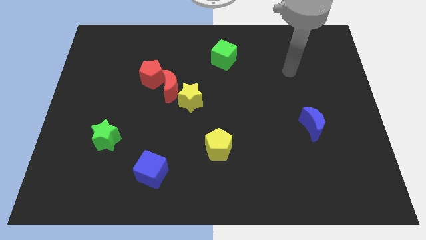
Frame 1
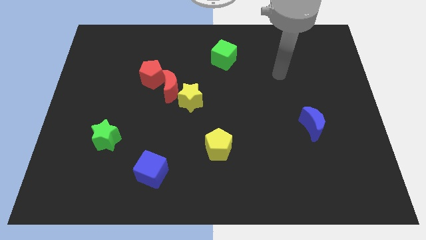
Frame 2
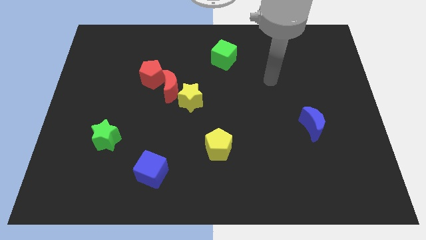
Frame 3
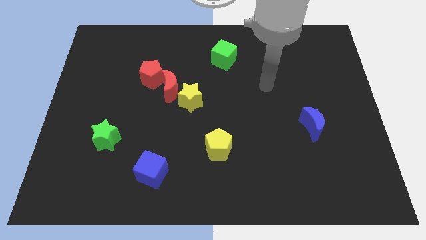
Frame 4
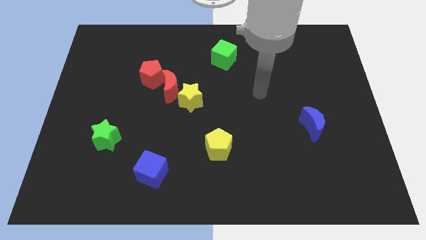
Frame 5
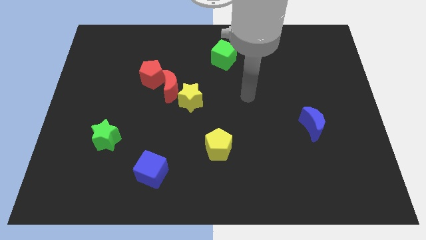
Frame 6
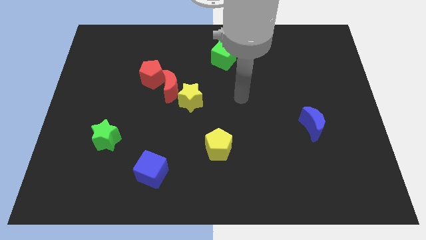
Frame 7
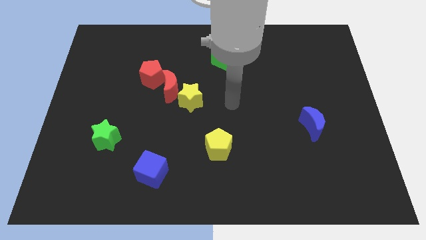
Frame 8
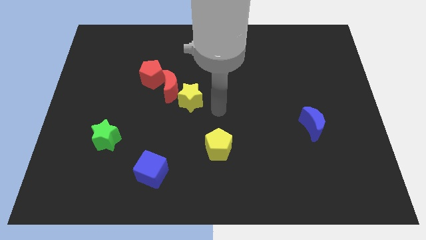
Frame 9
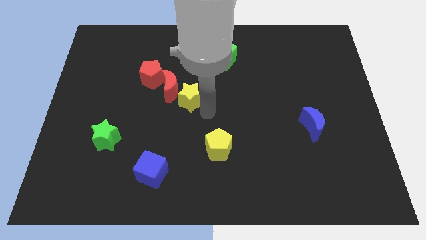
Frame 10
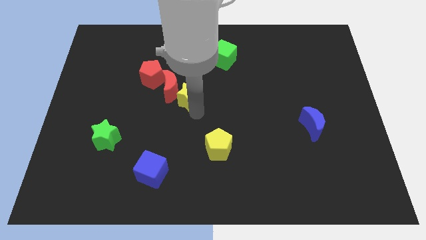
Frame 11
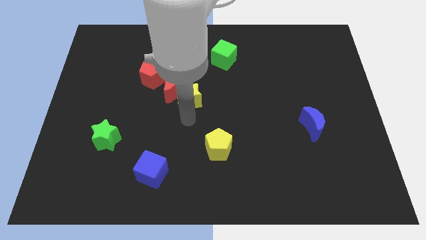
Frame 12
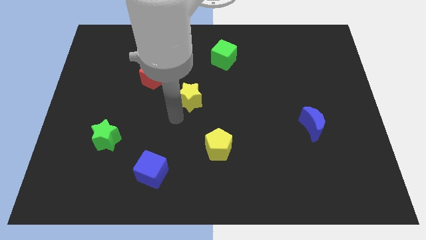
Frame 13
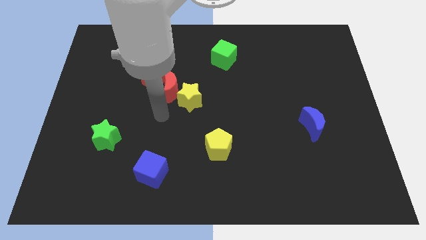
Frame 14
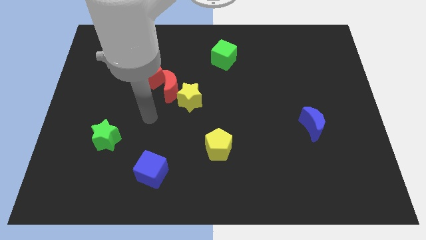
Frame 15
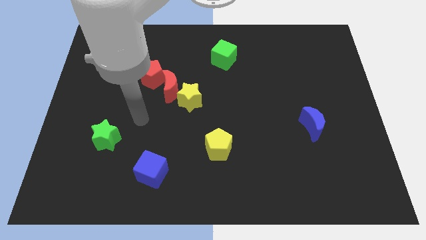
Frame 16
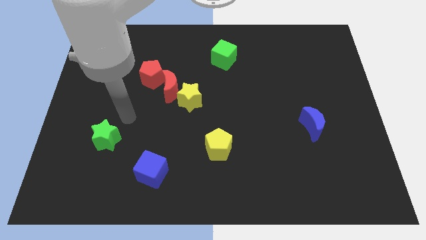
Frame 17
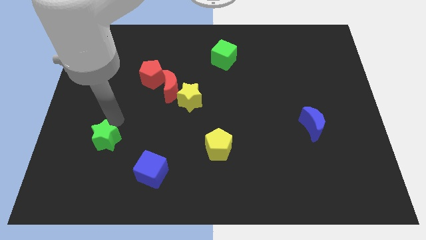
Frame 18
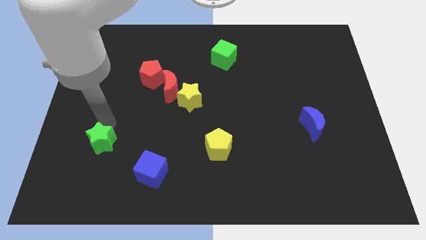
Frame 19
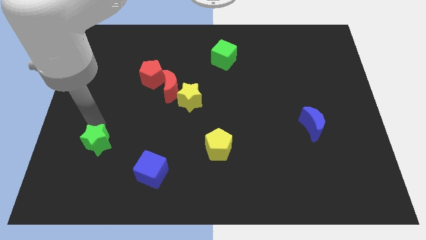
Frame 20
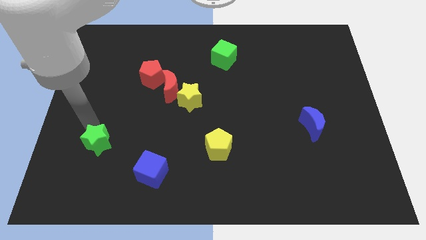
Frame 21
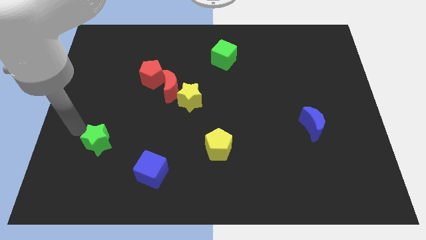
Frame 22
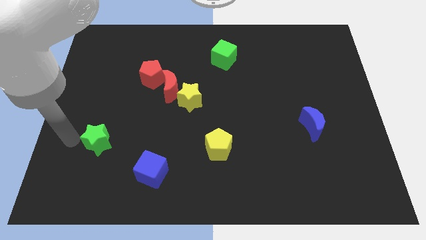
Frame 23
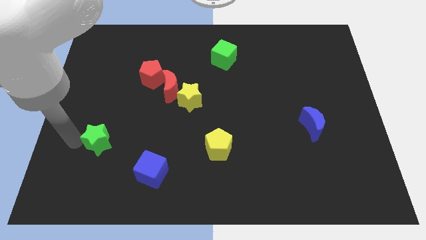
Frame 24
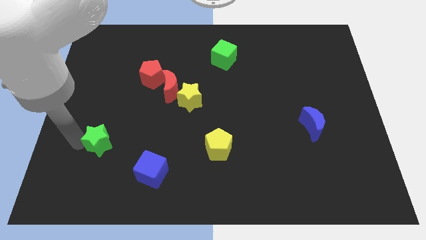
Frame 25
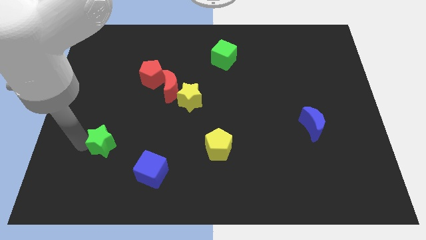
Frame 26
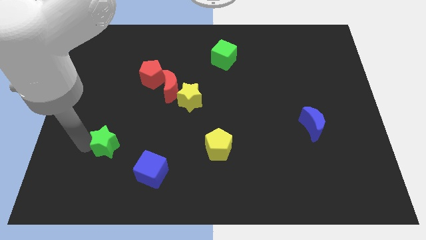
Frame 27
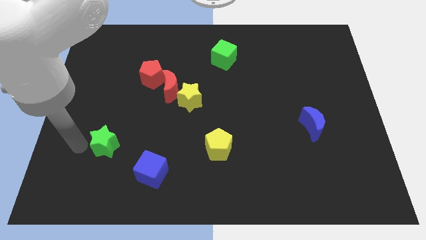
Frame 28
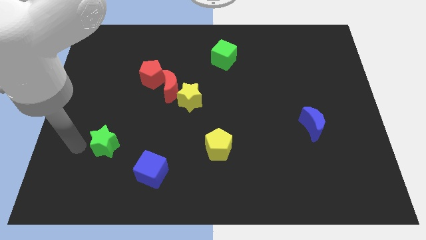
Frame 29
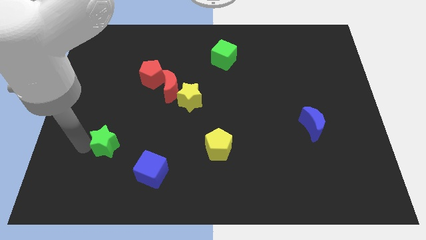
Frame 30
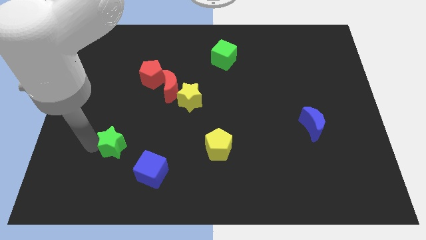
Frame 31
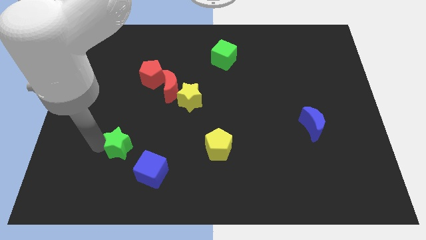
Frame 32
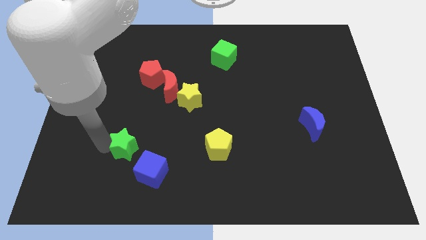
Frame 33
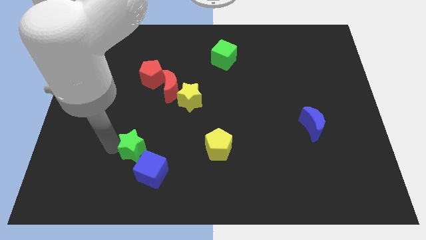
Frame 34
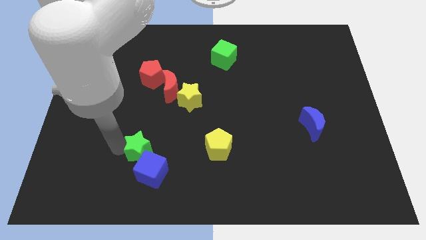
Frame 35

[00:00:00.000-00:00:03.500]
slightly slide the green star right

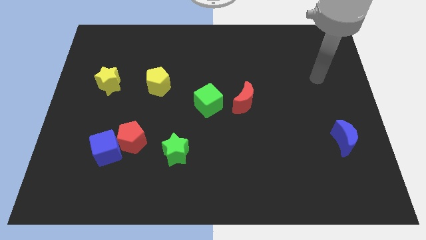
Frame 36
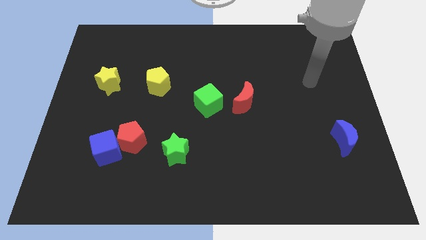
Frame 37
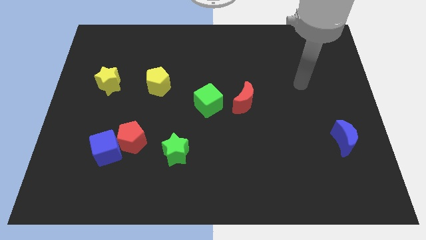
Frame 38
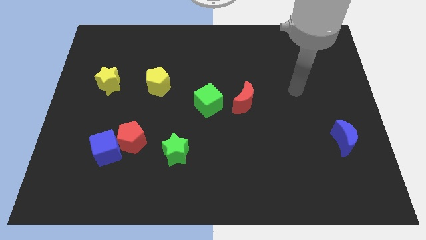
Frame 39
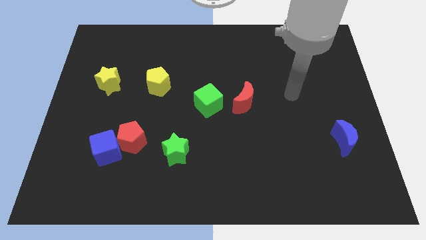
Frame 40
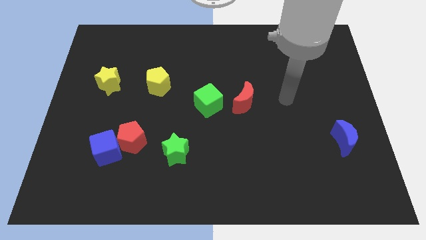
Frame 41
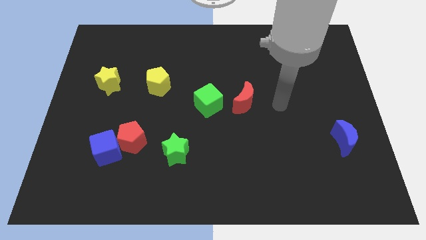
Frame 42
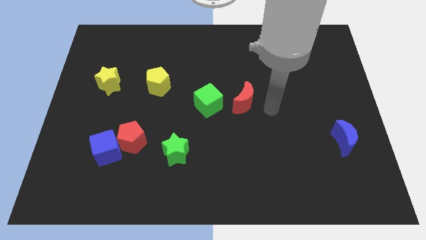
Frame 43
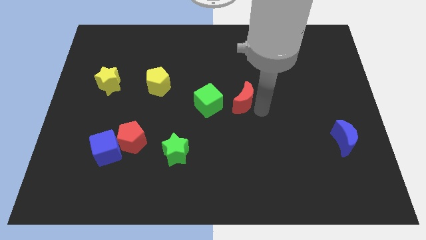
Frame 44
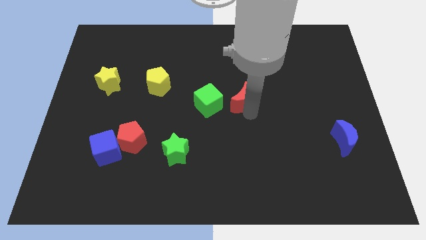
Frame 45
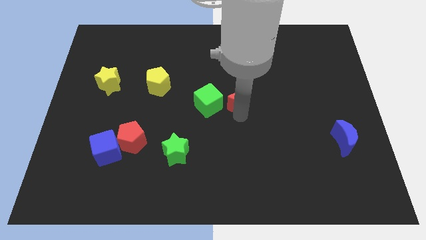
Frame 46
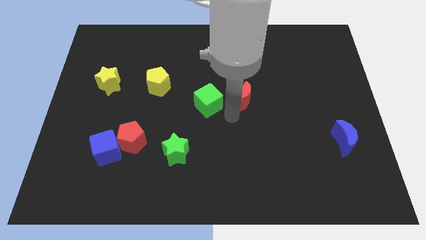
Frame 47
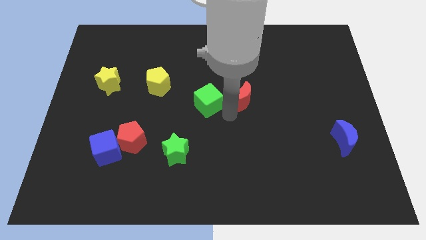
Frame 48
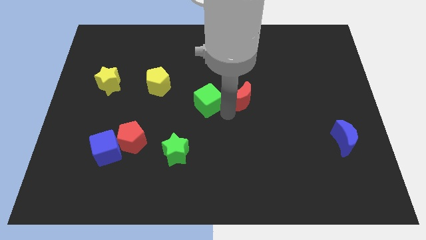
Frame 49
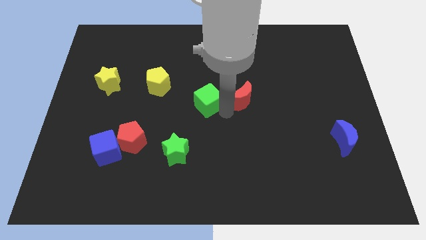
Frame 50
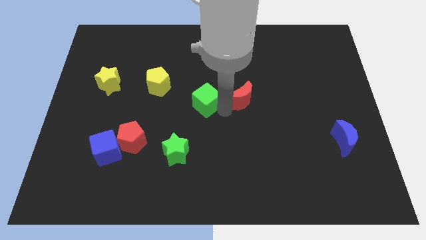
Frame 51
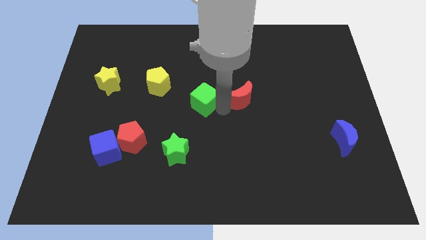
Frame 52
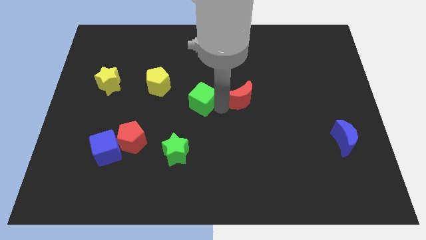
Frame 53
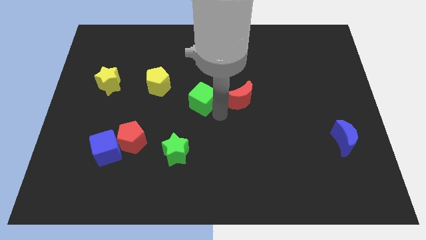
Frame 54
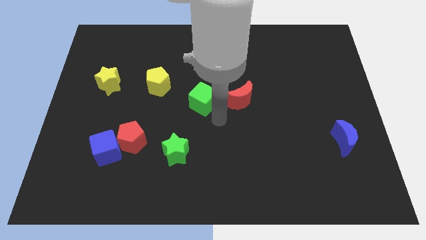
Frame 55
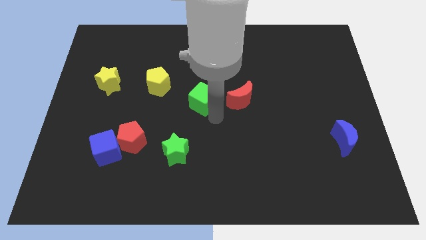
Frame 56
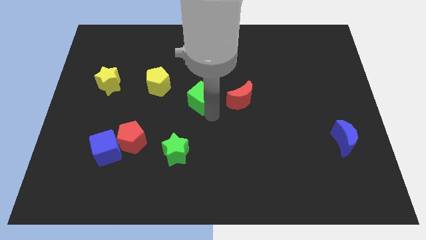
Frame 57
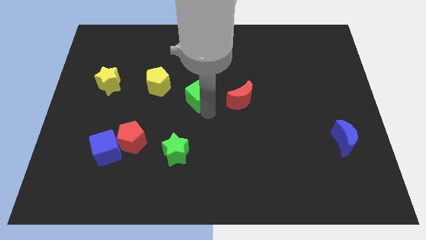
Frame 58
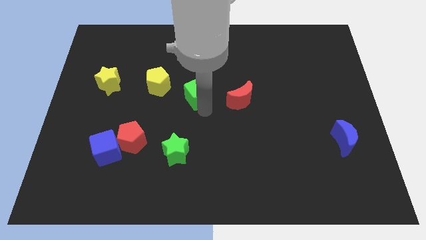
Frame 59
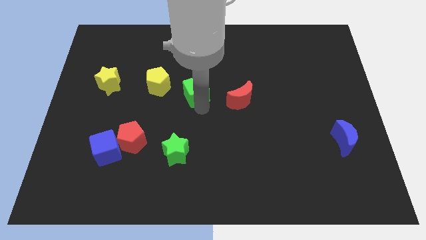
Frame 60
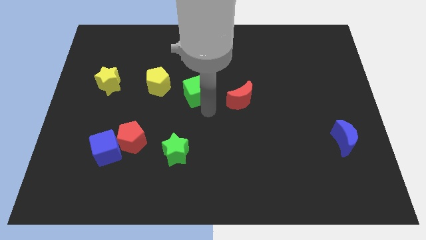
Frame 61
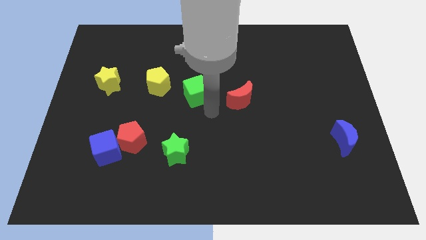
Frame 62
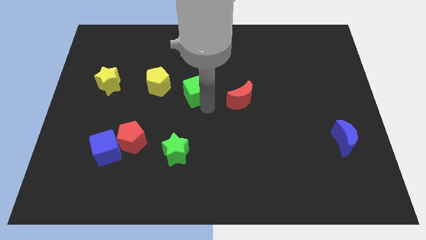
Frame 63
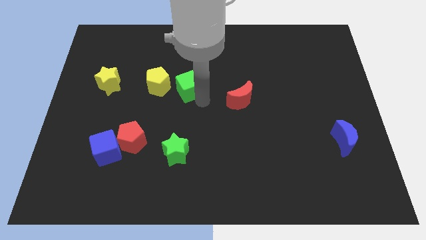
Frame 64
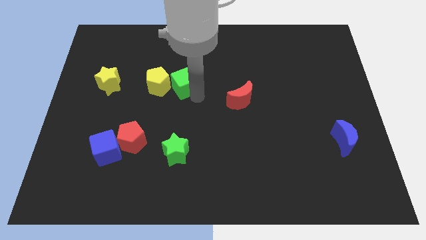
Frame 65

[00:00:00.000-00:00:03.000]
slightly push the green cube up and left diagonally

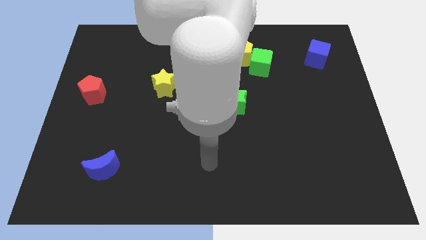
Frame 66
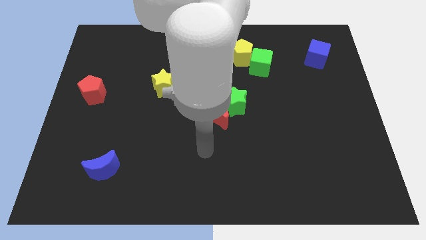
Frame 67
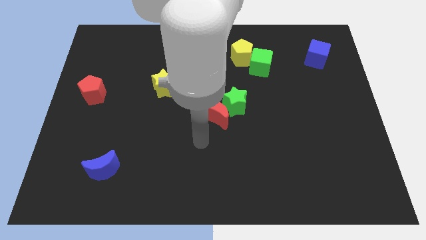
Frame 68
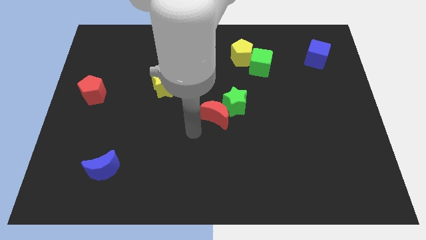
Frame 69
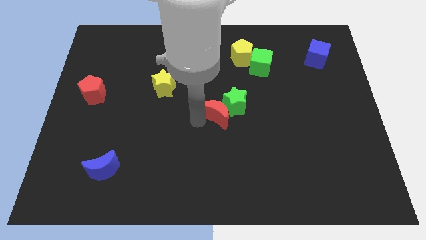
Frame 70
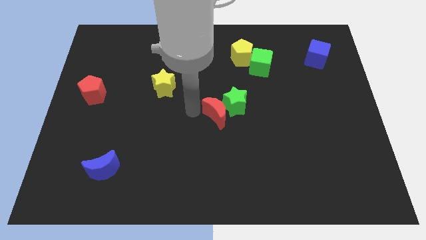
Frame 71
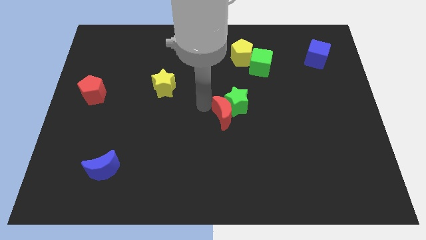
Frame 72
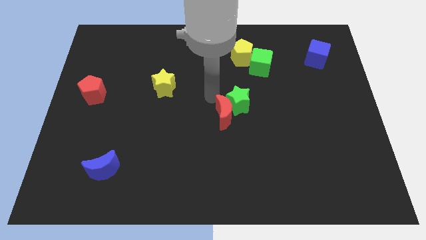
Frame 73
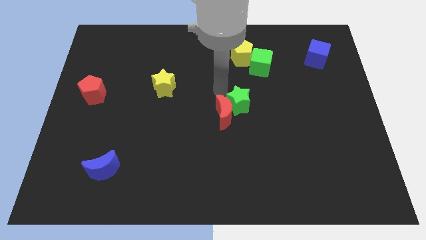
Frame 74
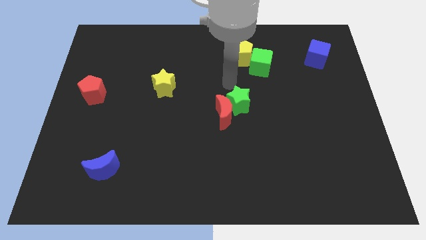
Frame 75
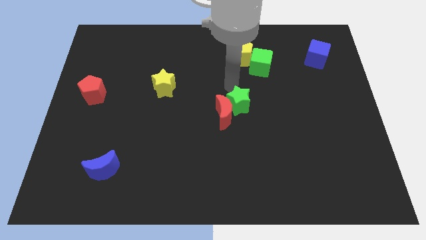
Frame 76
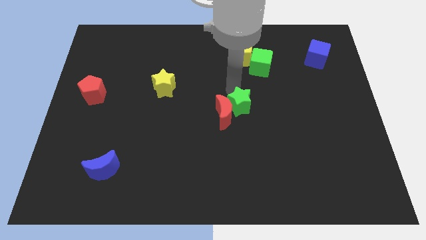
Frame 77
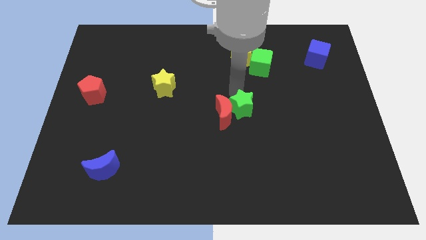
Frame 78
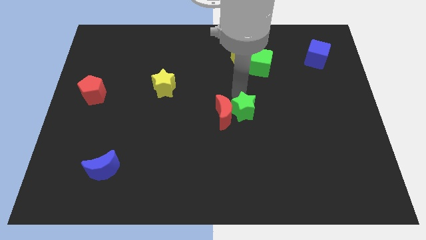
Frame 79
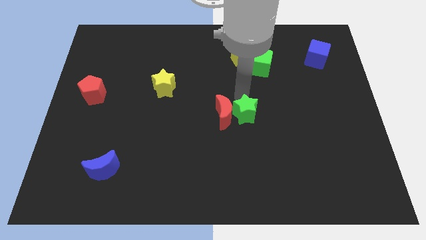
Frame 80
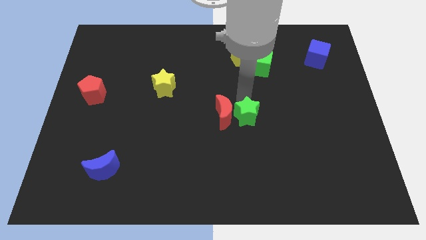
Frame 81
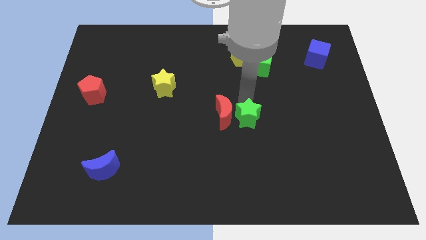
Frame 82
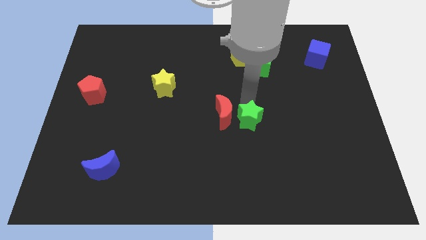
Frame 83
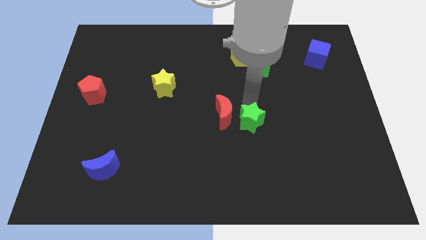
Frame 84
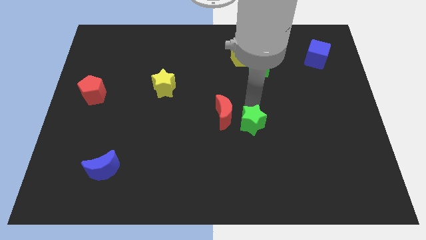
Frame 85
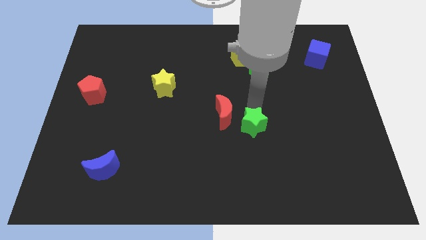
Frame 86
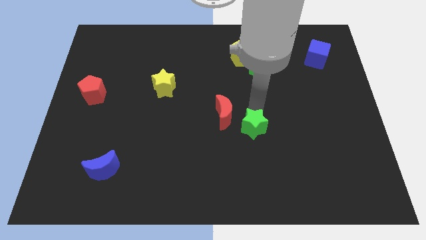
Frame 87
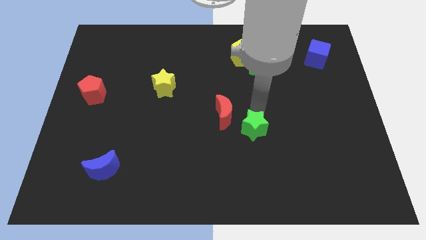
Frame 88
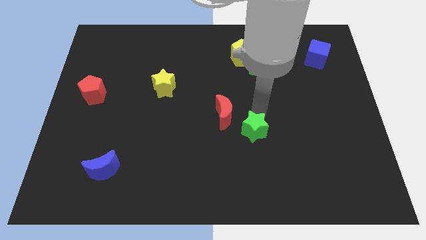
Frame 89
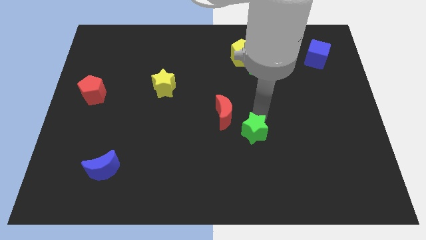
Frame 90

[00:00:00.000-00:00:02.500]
slightly move the green star downwards
